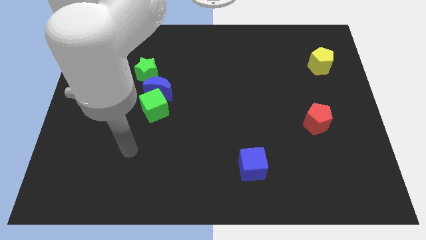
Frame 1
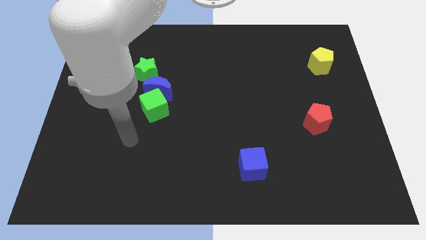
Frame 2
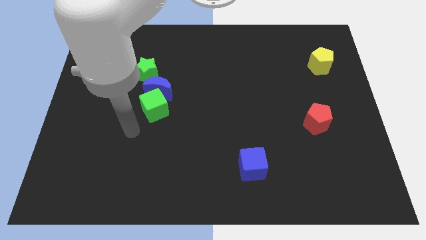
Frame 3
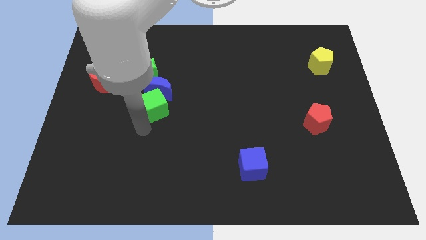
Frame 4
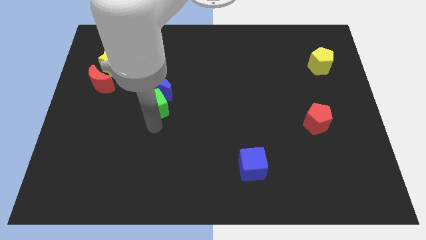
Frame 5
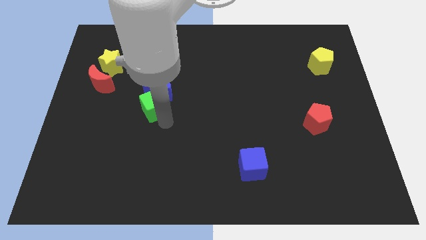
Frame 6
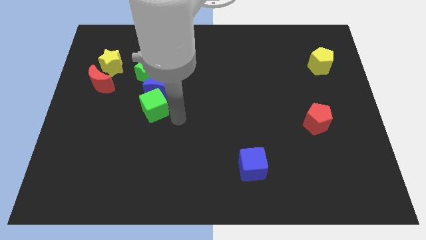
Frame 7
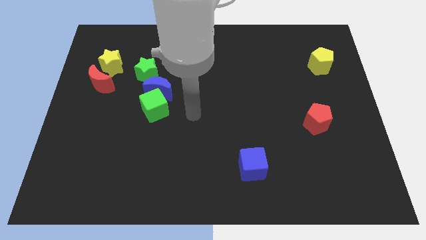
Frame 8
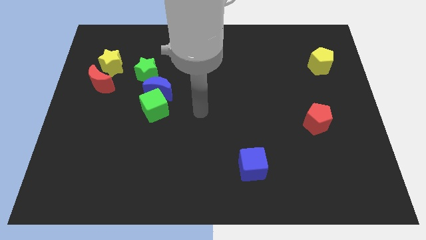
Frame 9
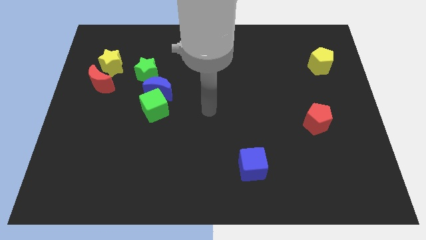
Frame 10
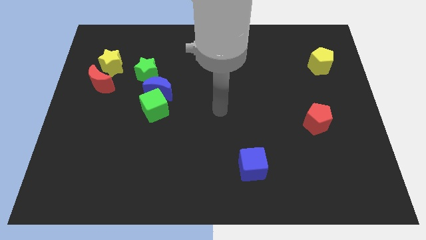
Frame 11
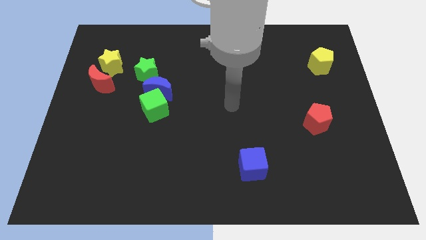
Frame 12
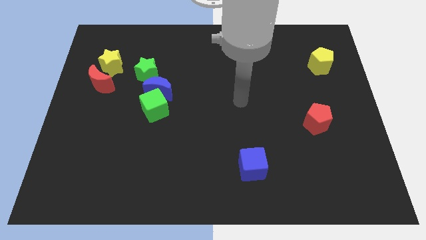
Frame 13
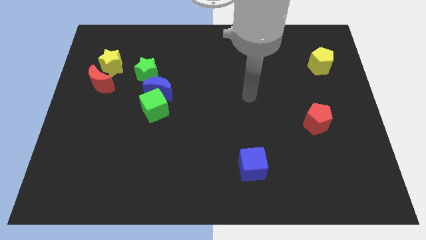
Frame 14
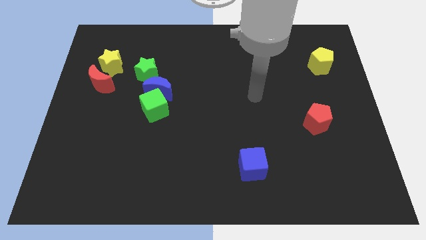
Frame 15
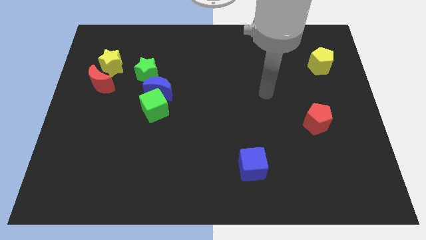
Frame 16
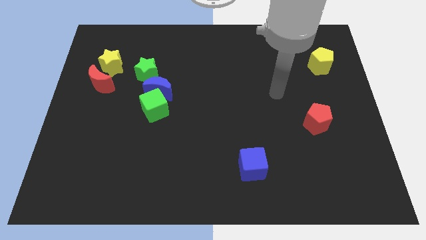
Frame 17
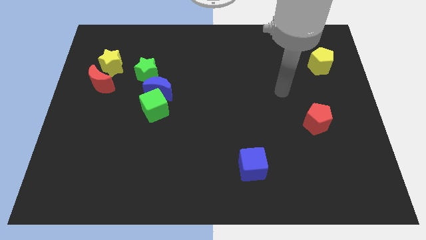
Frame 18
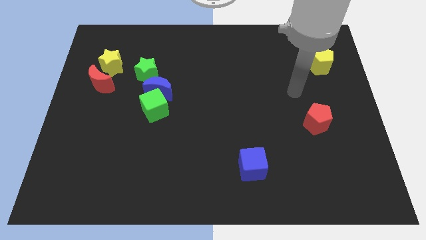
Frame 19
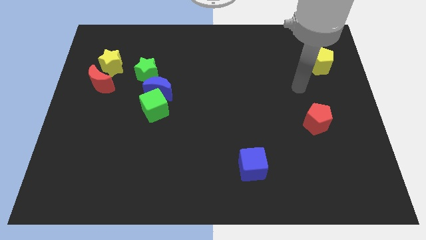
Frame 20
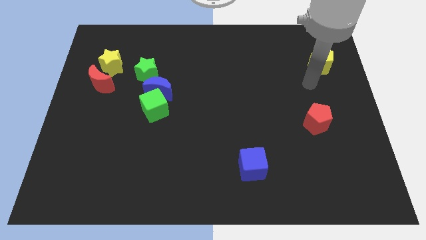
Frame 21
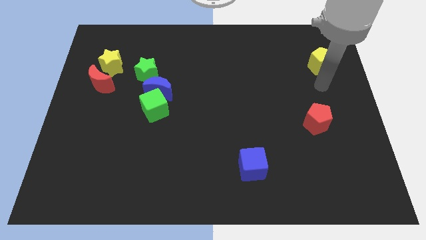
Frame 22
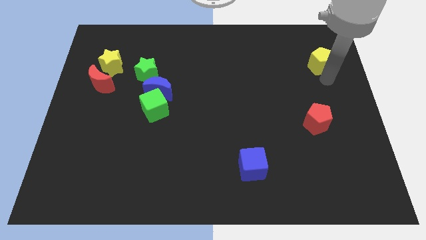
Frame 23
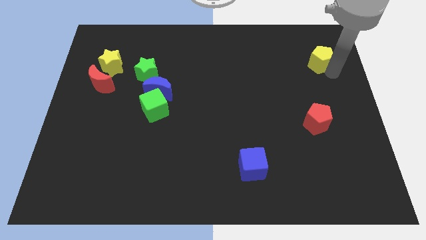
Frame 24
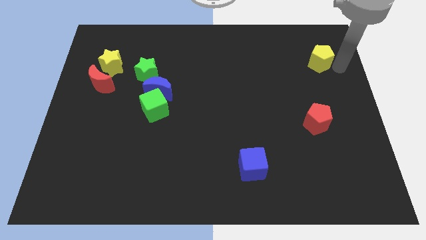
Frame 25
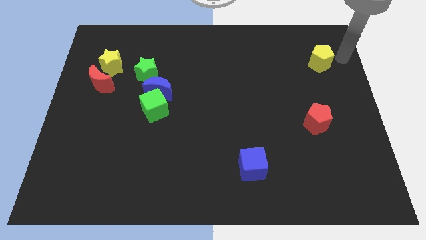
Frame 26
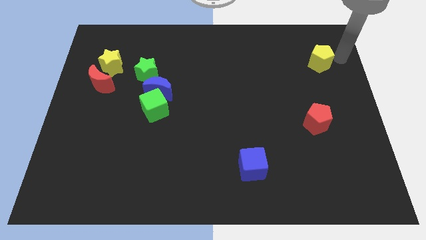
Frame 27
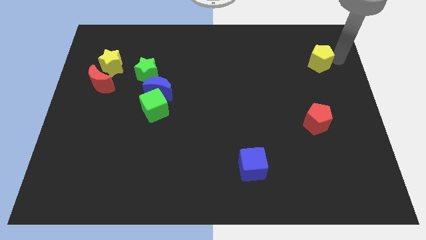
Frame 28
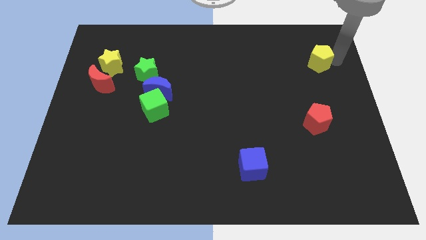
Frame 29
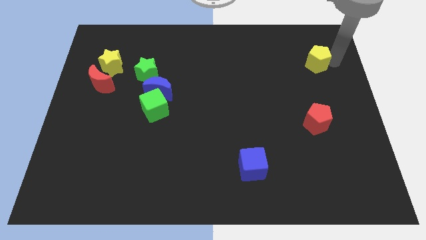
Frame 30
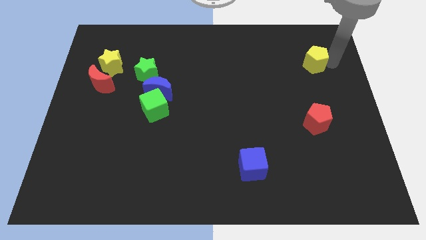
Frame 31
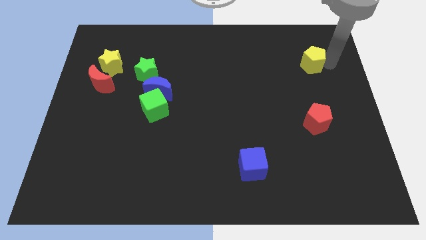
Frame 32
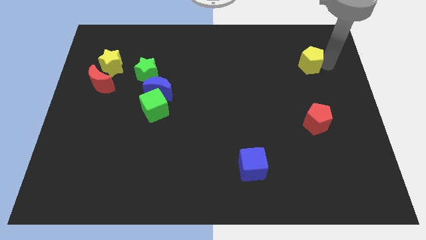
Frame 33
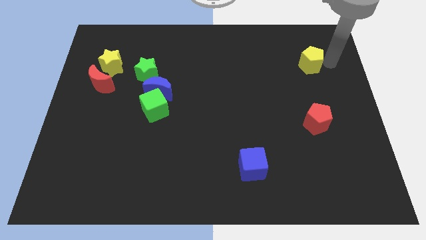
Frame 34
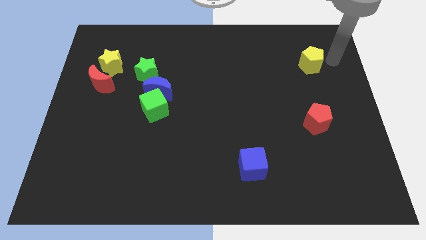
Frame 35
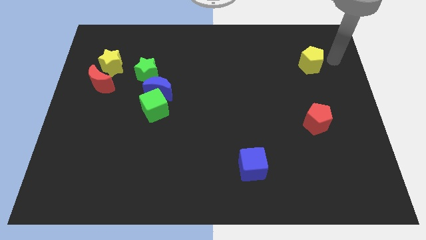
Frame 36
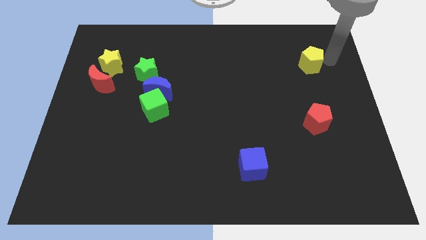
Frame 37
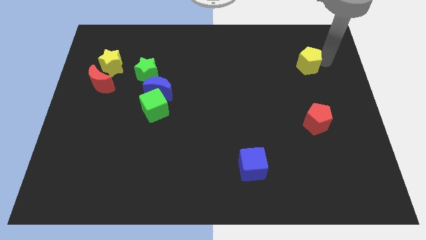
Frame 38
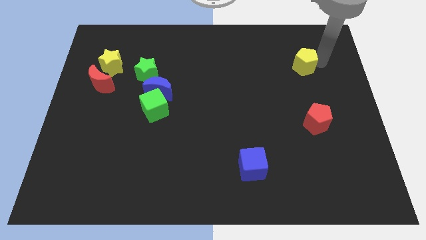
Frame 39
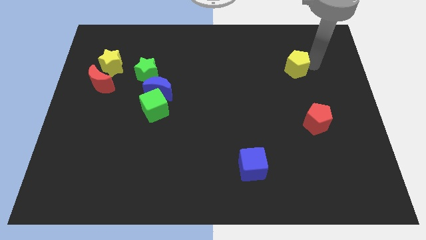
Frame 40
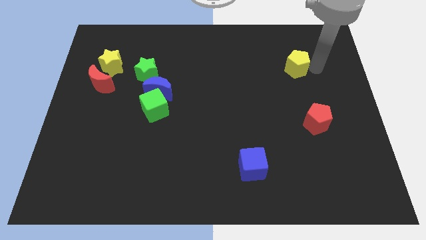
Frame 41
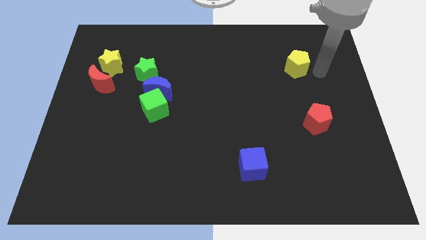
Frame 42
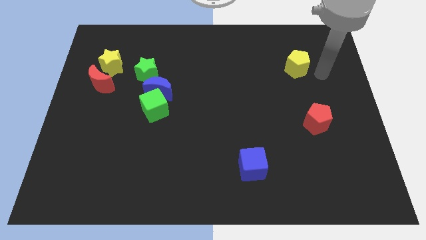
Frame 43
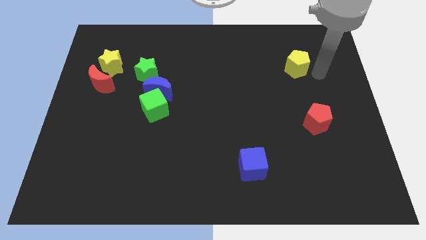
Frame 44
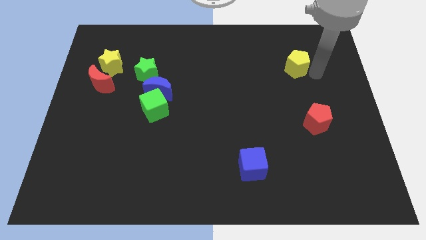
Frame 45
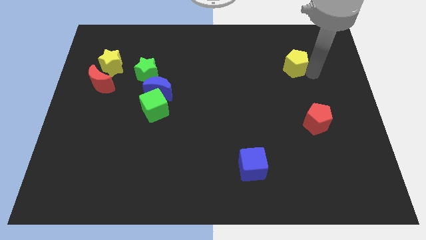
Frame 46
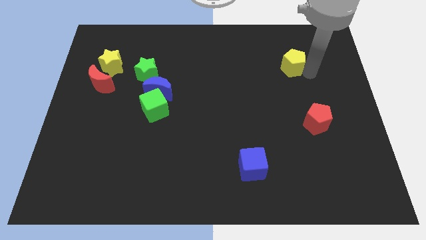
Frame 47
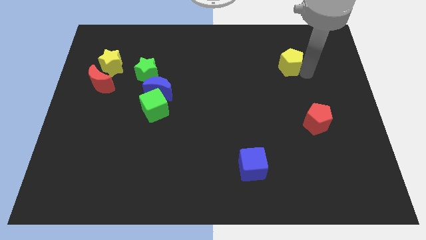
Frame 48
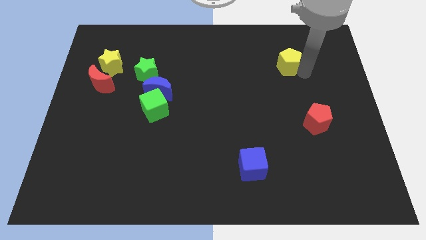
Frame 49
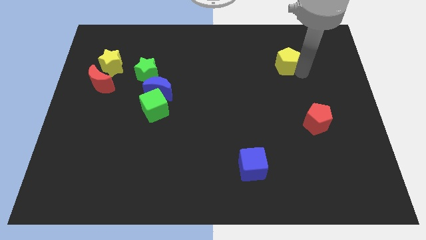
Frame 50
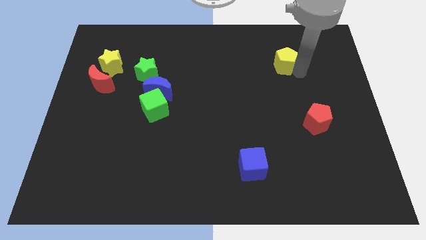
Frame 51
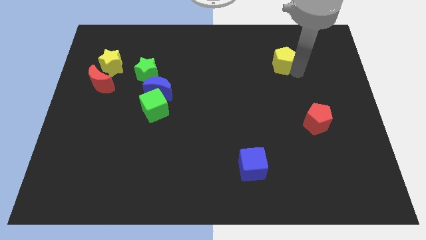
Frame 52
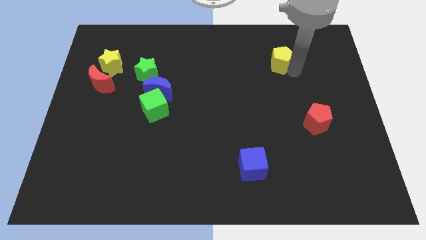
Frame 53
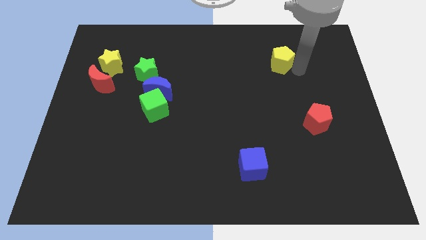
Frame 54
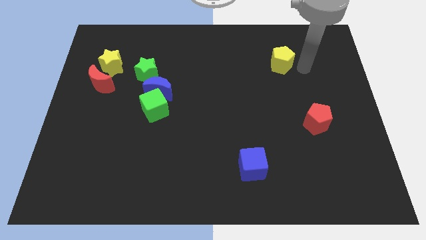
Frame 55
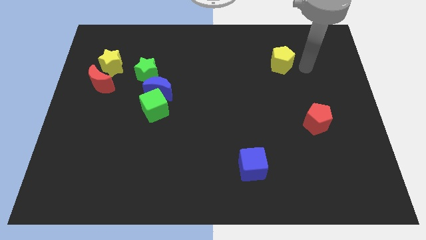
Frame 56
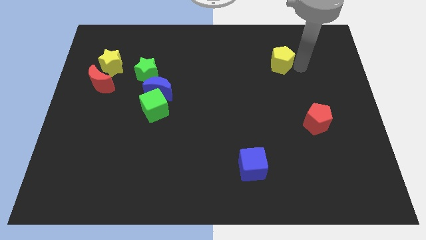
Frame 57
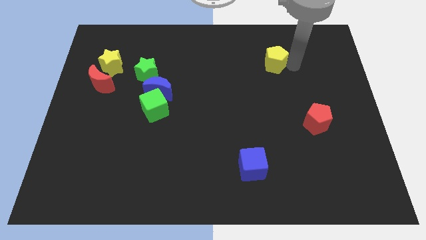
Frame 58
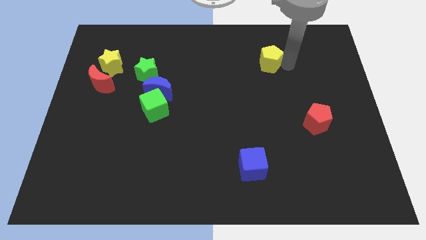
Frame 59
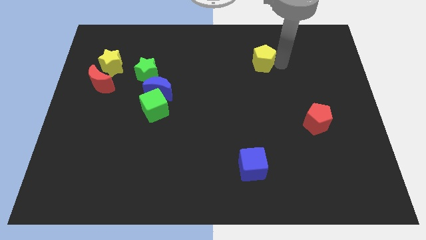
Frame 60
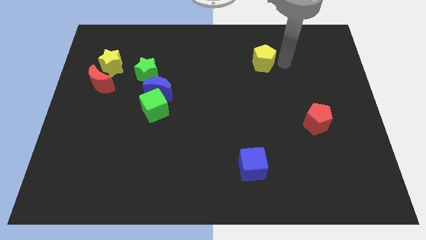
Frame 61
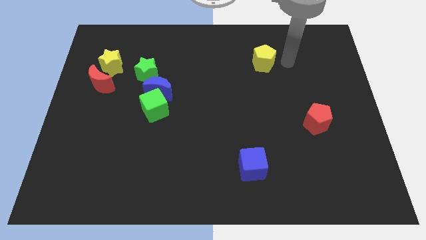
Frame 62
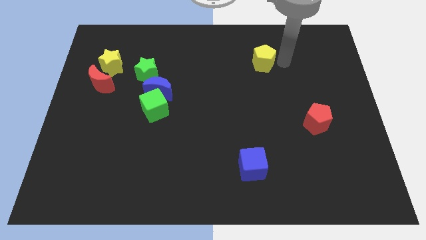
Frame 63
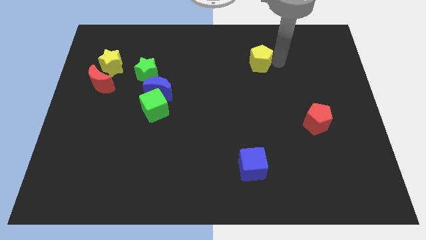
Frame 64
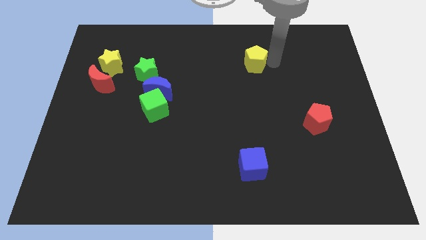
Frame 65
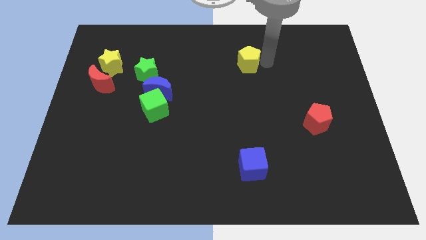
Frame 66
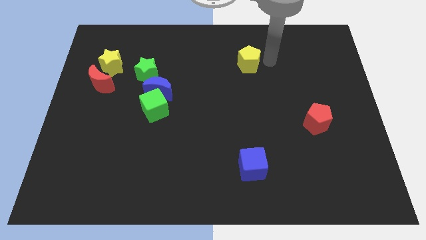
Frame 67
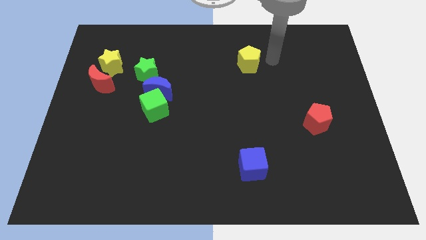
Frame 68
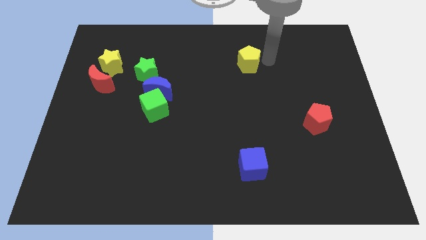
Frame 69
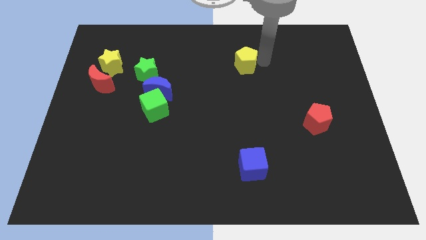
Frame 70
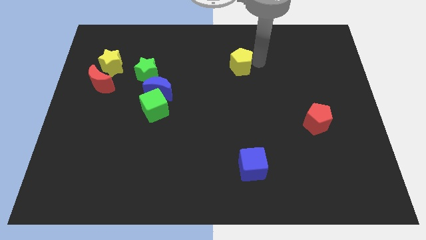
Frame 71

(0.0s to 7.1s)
push the yellow pentagon to the left

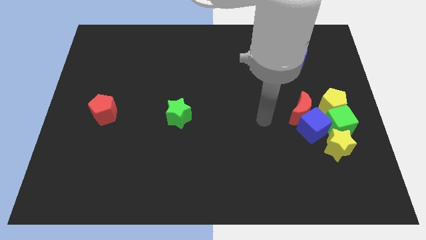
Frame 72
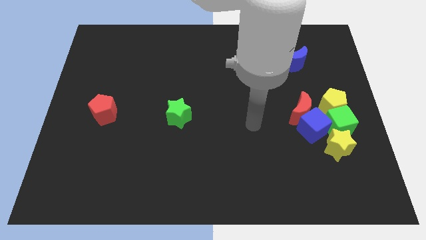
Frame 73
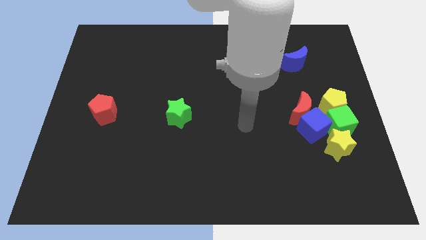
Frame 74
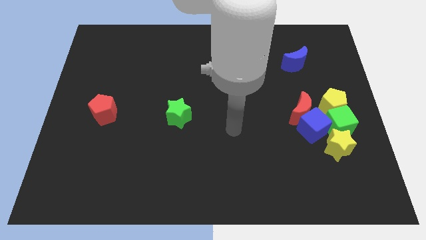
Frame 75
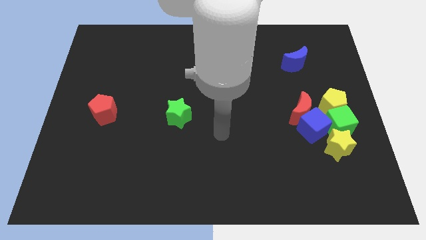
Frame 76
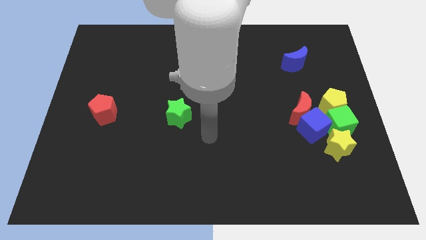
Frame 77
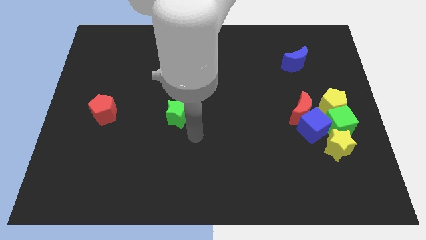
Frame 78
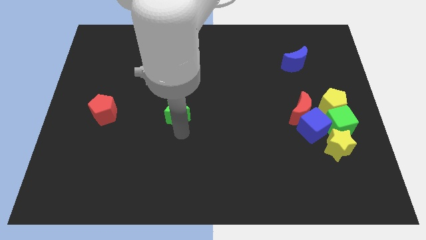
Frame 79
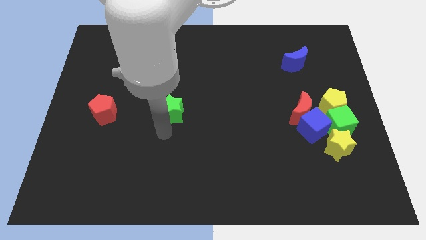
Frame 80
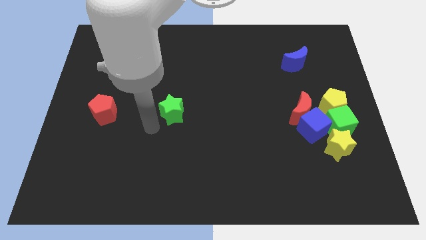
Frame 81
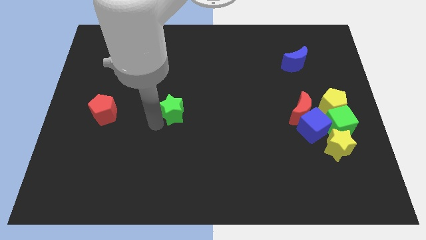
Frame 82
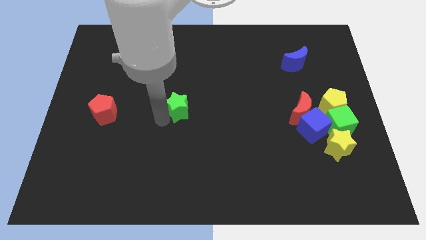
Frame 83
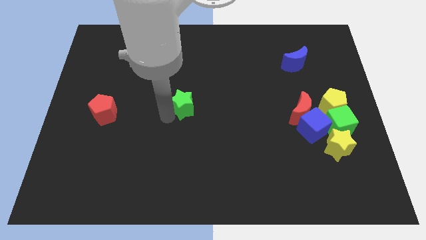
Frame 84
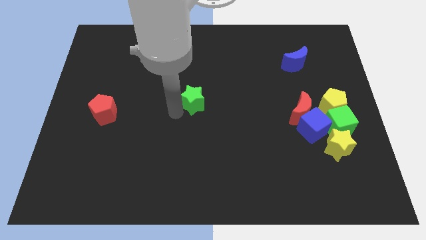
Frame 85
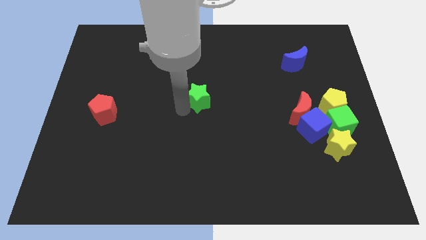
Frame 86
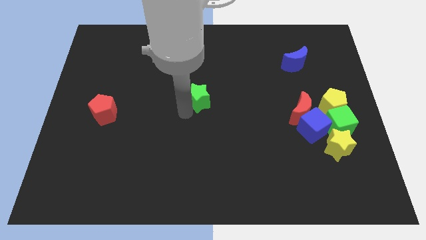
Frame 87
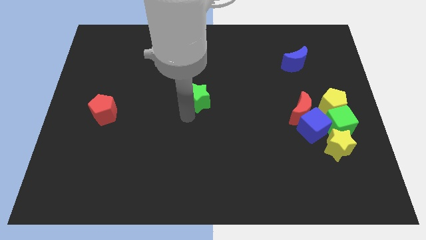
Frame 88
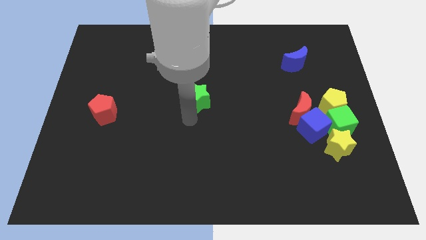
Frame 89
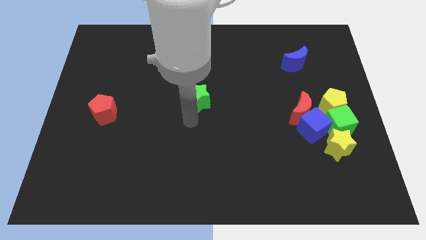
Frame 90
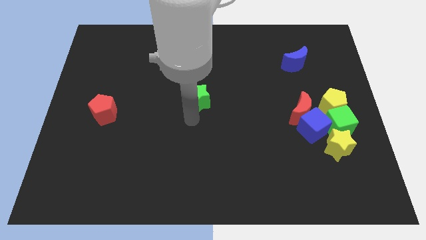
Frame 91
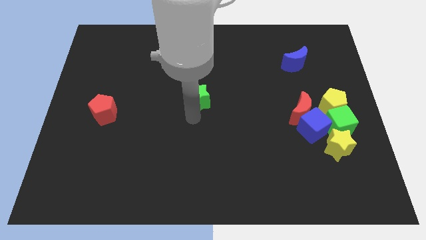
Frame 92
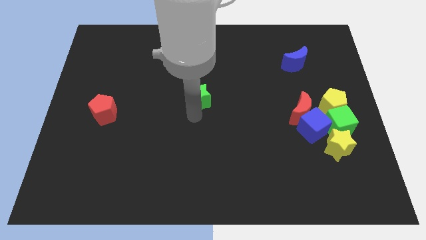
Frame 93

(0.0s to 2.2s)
slightly push the green star diagonally up and right
